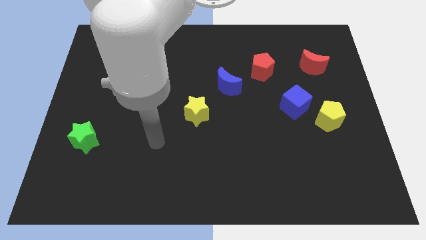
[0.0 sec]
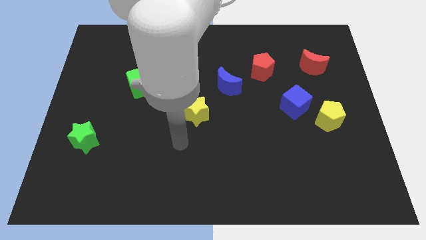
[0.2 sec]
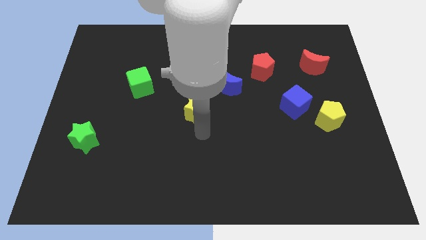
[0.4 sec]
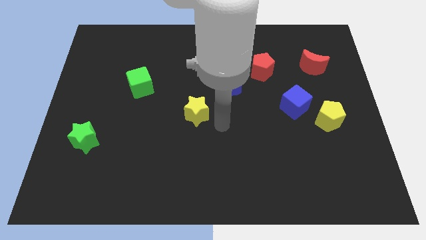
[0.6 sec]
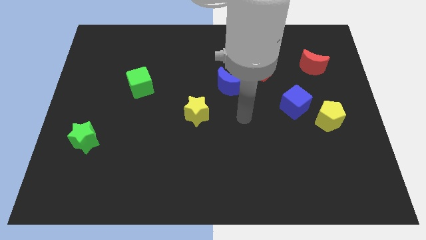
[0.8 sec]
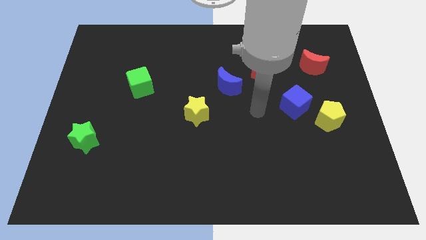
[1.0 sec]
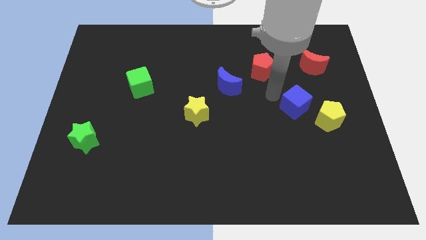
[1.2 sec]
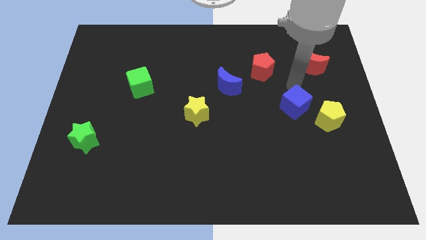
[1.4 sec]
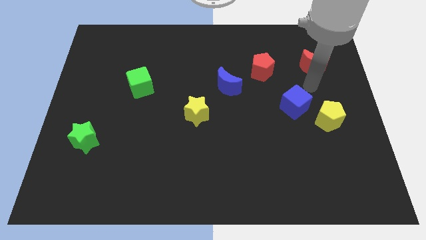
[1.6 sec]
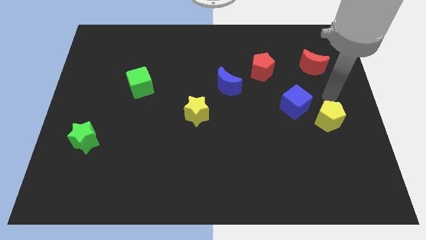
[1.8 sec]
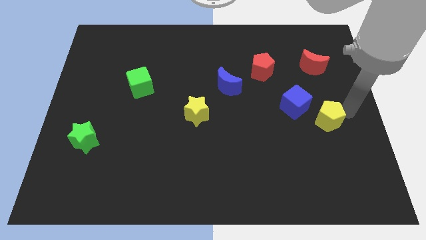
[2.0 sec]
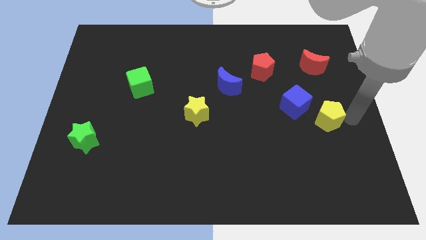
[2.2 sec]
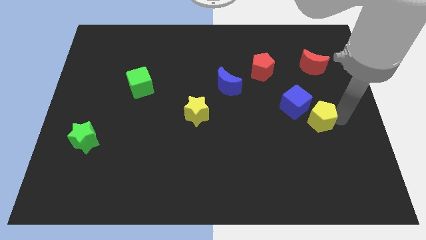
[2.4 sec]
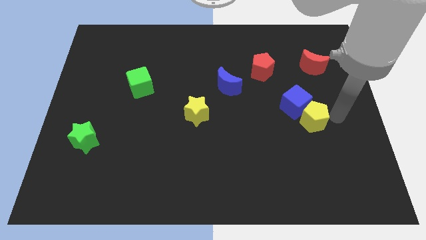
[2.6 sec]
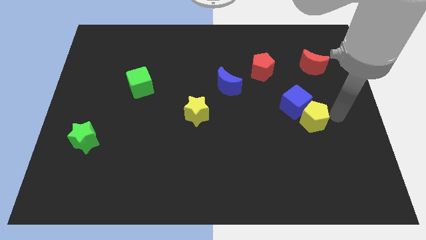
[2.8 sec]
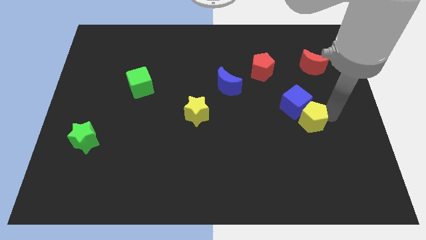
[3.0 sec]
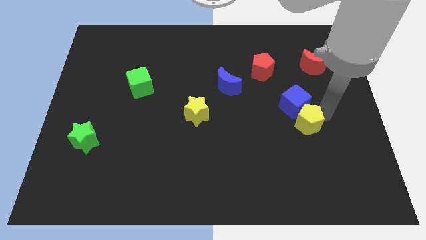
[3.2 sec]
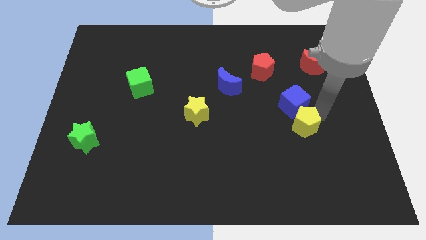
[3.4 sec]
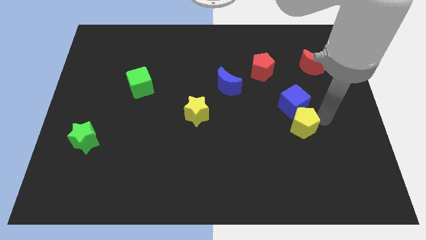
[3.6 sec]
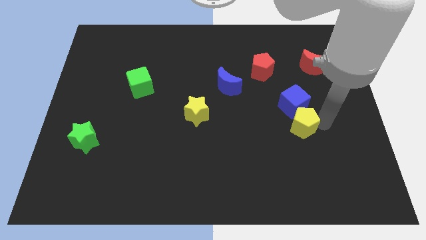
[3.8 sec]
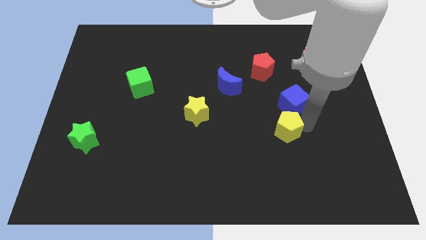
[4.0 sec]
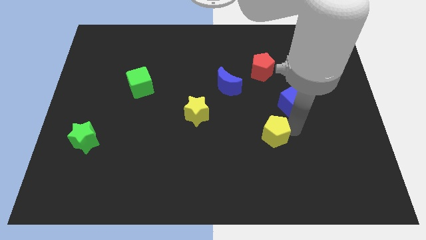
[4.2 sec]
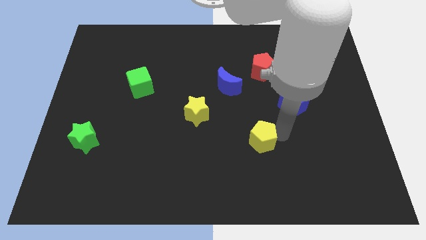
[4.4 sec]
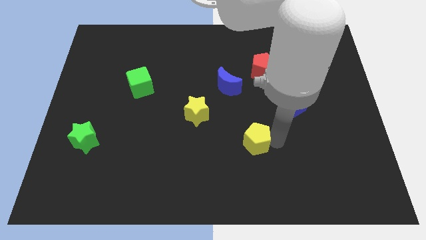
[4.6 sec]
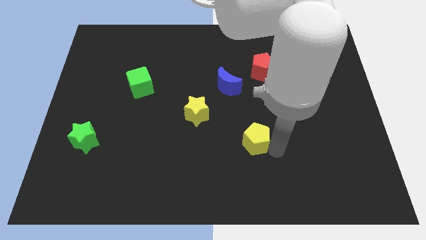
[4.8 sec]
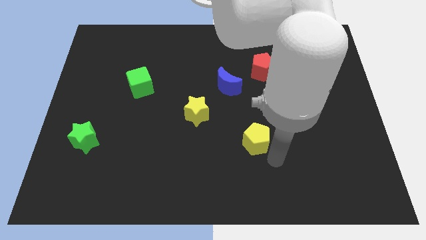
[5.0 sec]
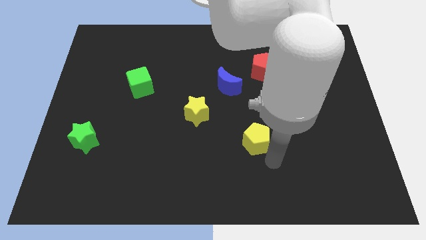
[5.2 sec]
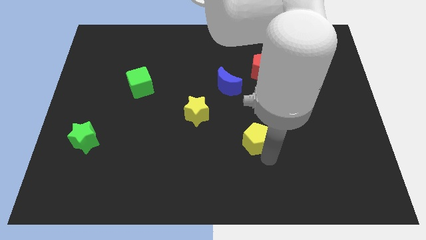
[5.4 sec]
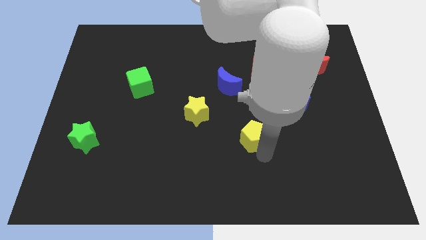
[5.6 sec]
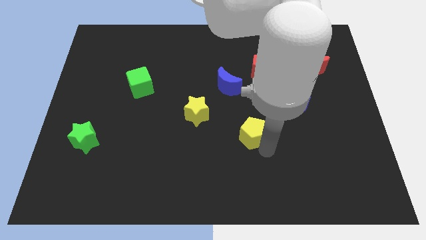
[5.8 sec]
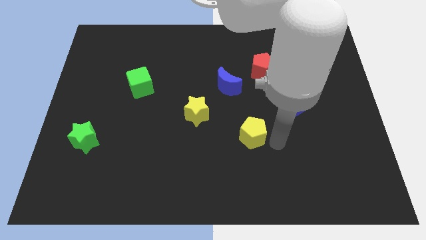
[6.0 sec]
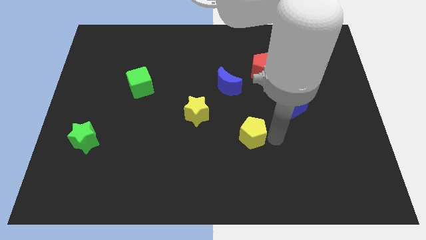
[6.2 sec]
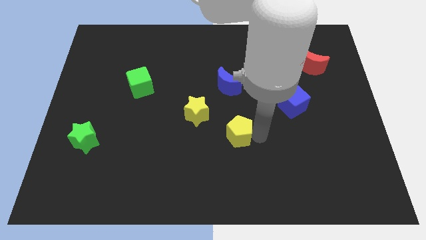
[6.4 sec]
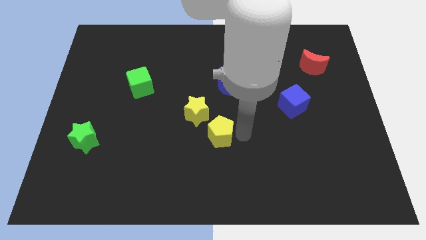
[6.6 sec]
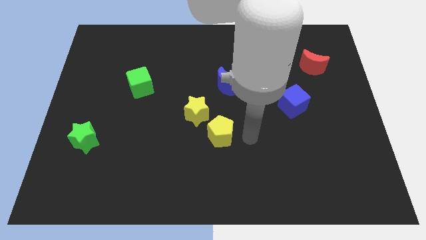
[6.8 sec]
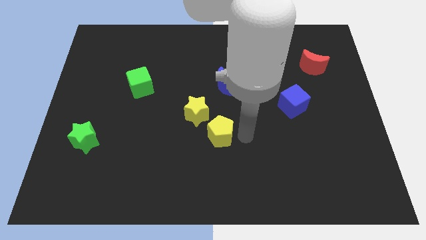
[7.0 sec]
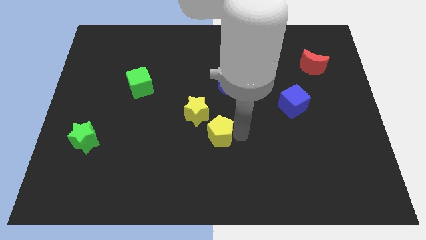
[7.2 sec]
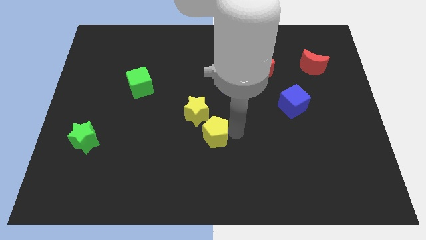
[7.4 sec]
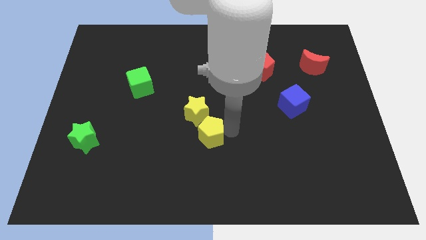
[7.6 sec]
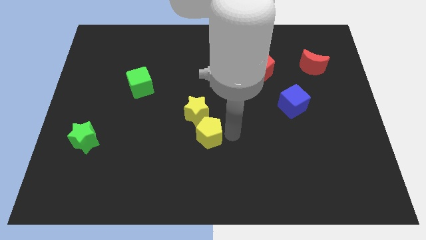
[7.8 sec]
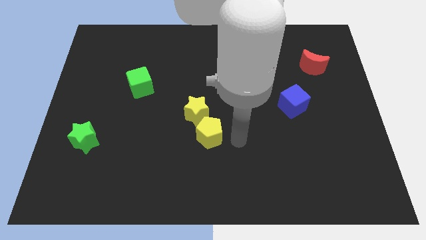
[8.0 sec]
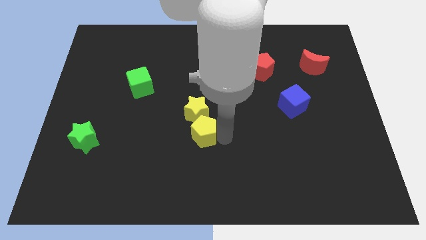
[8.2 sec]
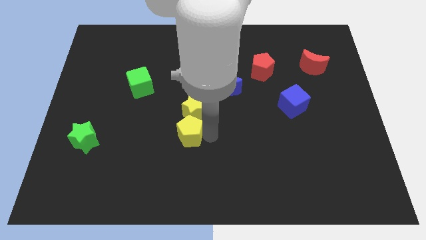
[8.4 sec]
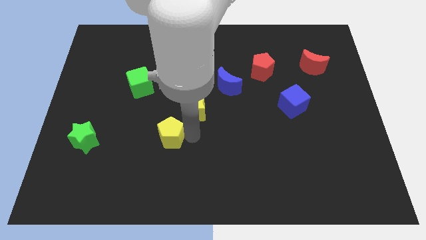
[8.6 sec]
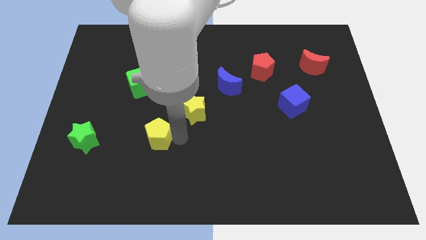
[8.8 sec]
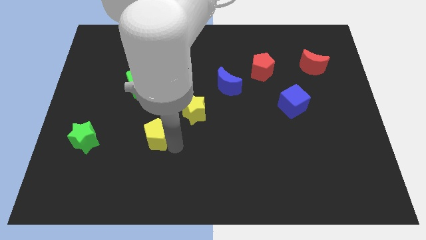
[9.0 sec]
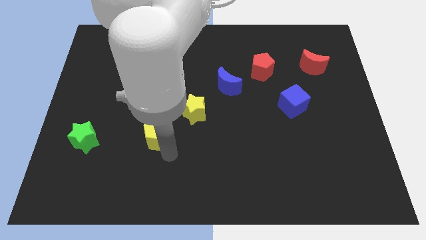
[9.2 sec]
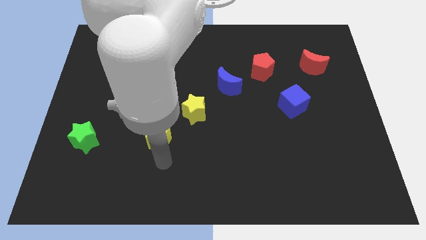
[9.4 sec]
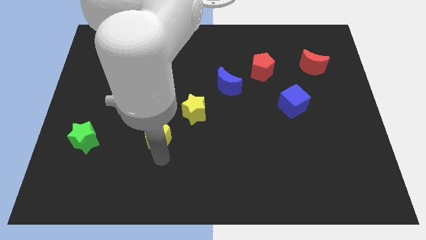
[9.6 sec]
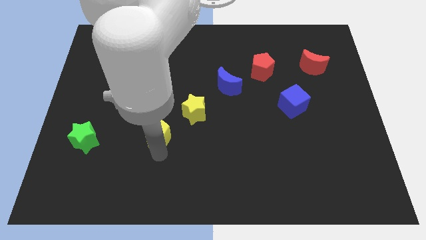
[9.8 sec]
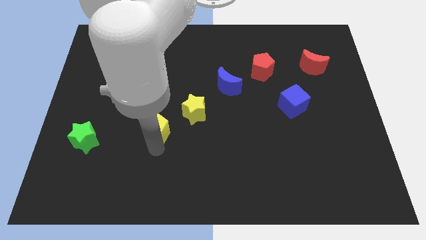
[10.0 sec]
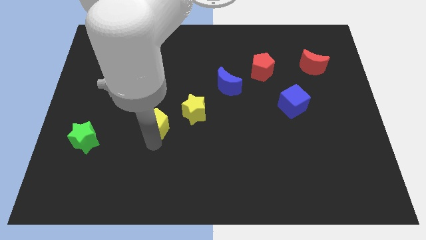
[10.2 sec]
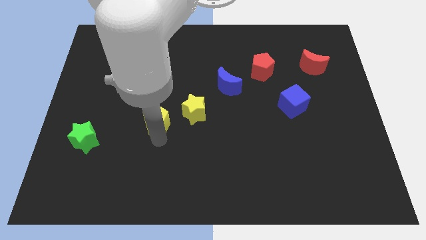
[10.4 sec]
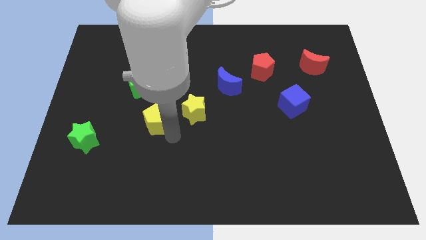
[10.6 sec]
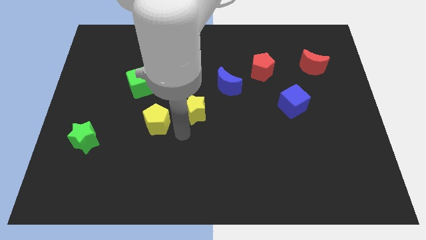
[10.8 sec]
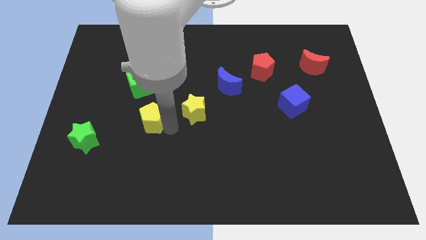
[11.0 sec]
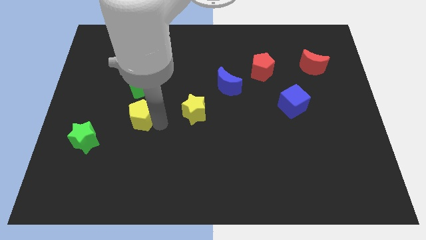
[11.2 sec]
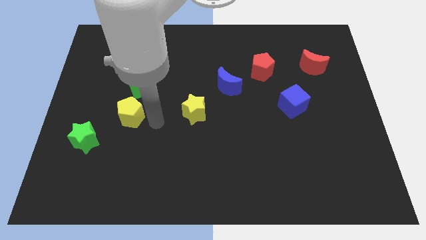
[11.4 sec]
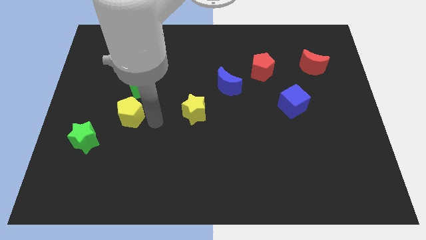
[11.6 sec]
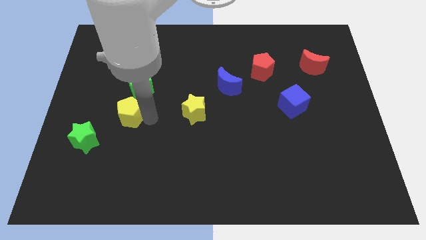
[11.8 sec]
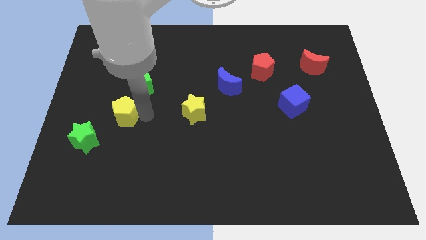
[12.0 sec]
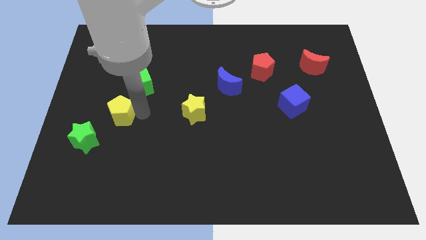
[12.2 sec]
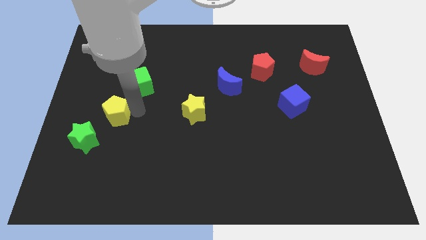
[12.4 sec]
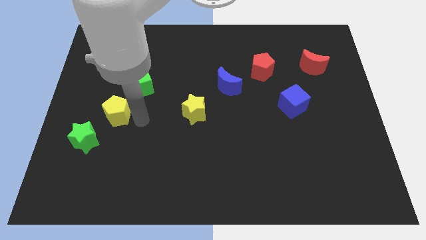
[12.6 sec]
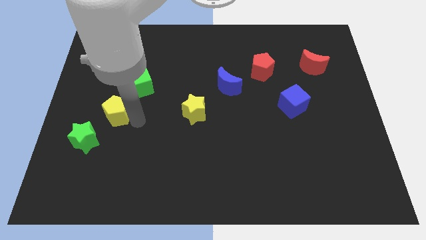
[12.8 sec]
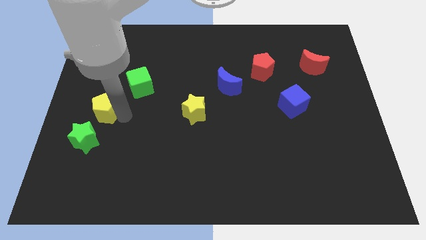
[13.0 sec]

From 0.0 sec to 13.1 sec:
put the yellow pentagon to the top side of the green star
